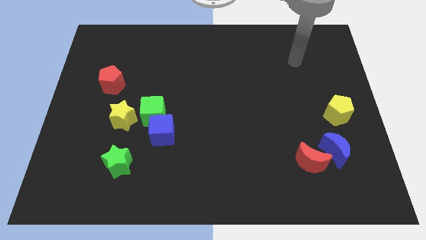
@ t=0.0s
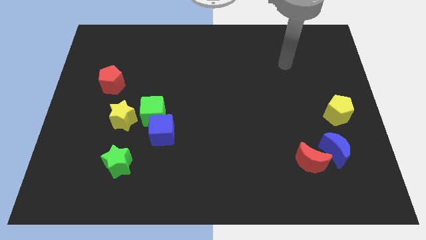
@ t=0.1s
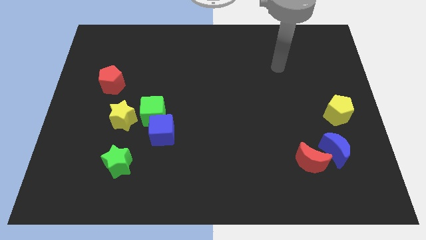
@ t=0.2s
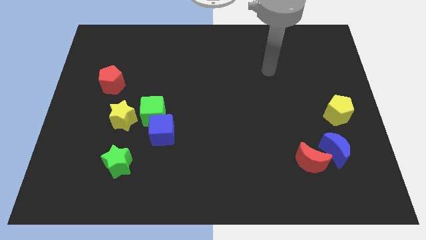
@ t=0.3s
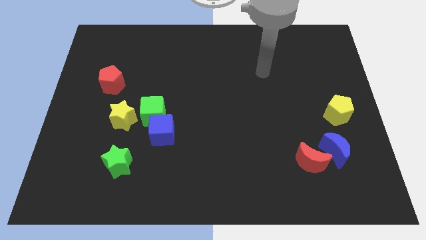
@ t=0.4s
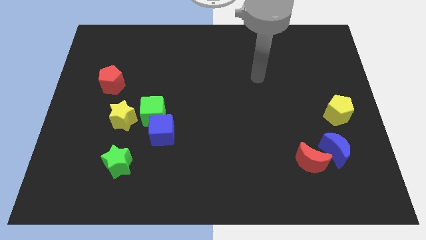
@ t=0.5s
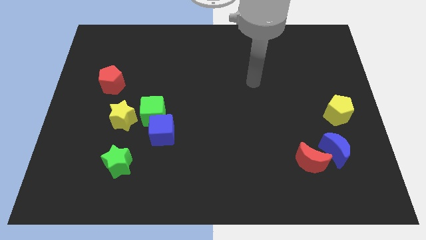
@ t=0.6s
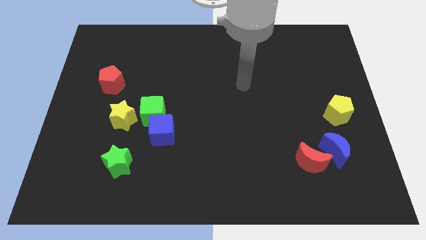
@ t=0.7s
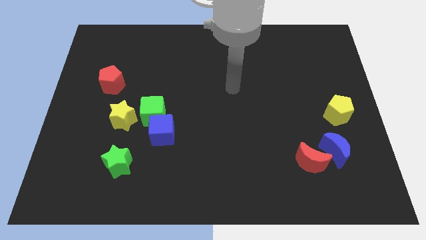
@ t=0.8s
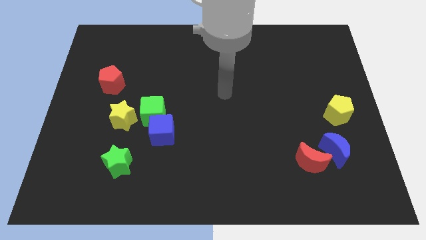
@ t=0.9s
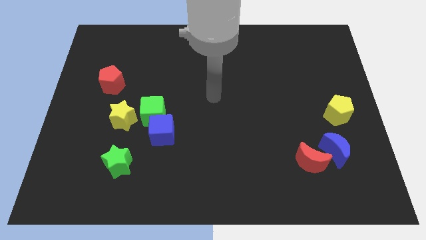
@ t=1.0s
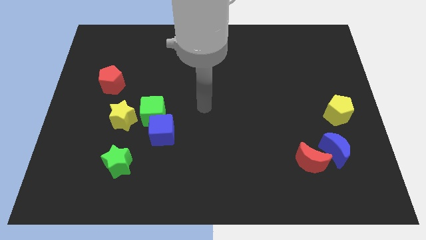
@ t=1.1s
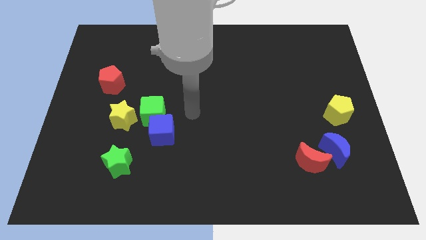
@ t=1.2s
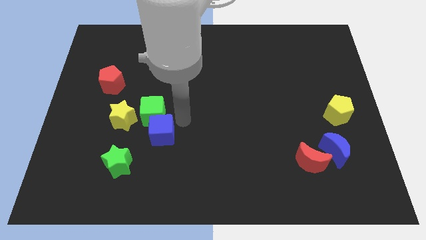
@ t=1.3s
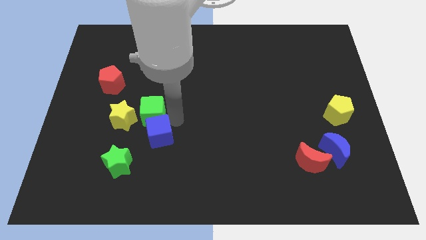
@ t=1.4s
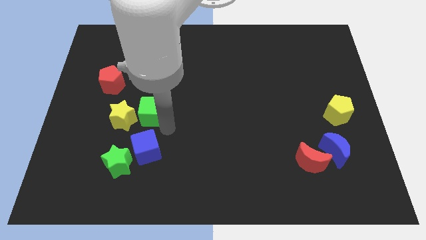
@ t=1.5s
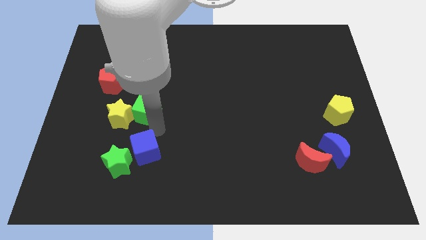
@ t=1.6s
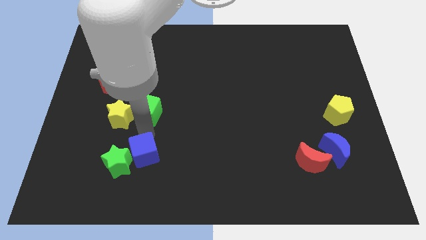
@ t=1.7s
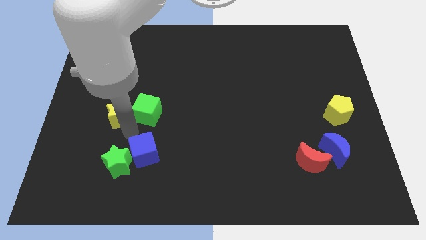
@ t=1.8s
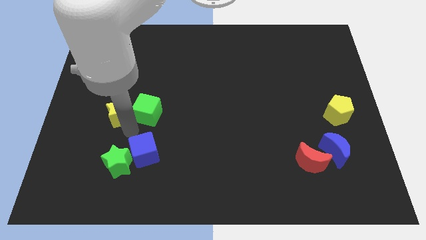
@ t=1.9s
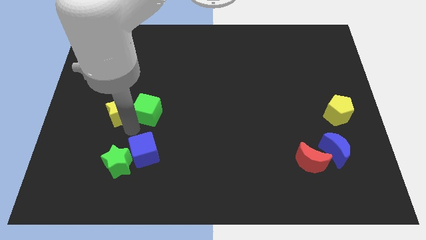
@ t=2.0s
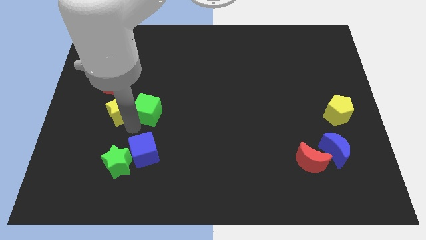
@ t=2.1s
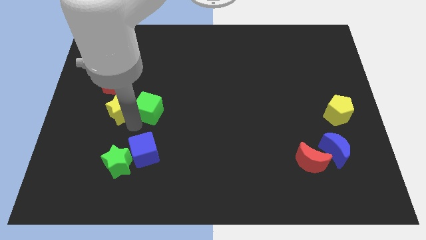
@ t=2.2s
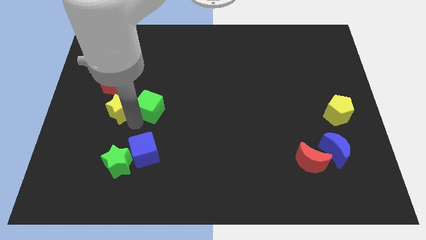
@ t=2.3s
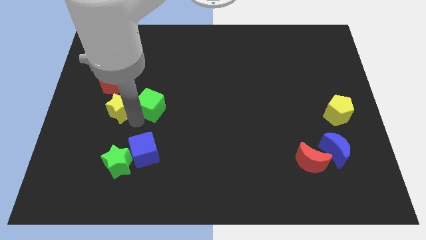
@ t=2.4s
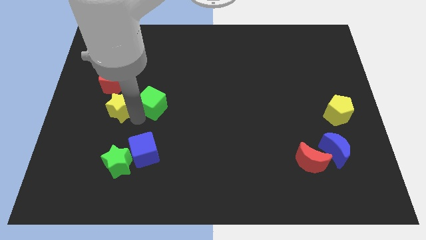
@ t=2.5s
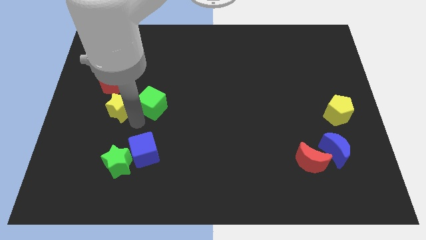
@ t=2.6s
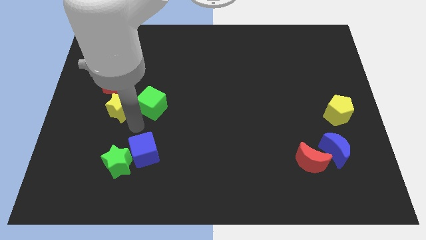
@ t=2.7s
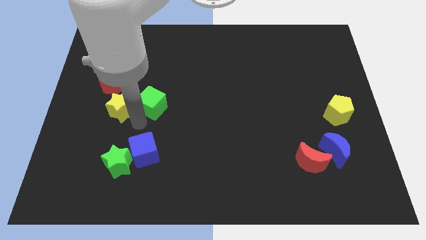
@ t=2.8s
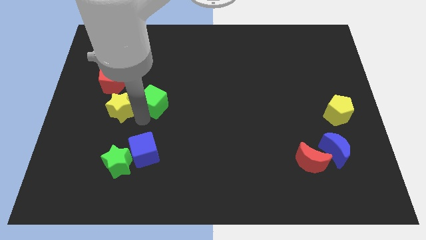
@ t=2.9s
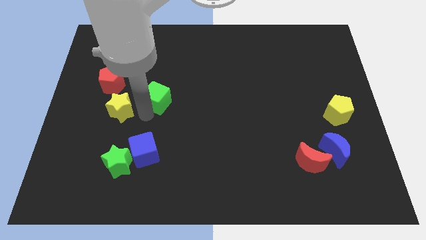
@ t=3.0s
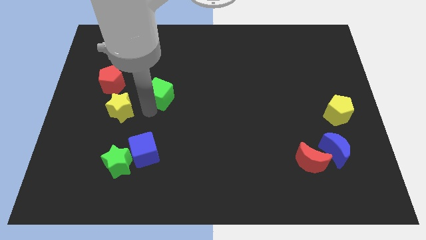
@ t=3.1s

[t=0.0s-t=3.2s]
move the green cube away from the blue cube and yellow star

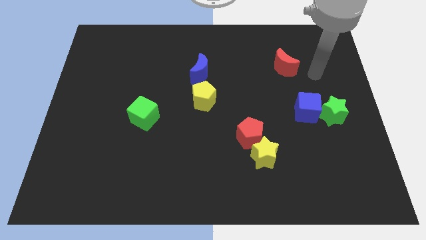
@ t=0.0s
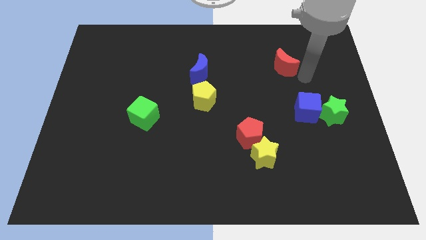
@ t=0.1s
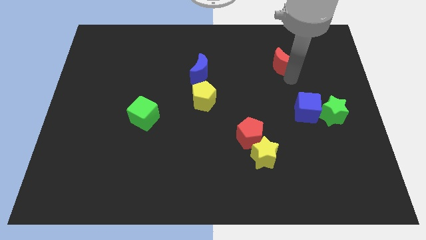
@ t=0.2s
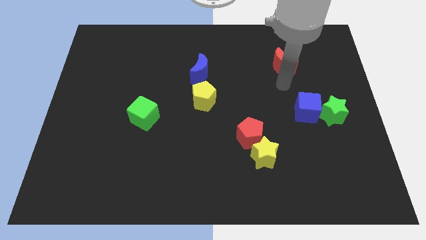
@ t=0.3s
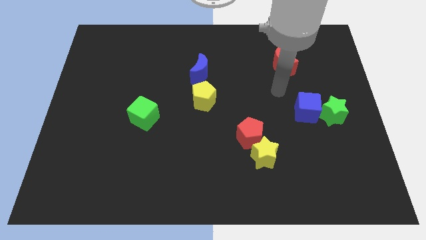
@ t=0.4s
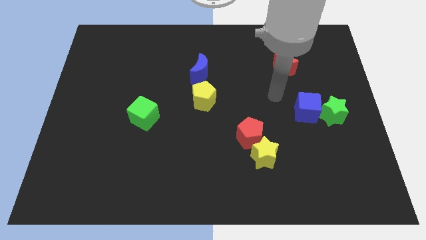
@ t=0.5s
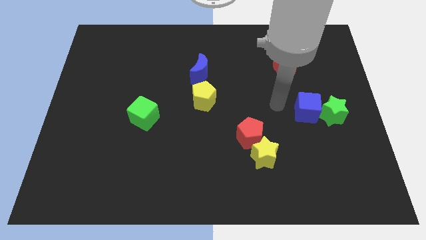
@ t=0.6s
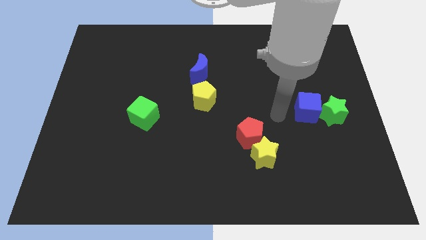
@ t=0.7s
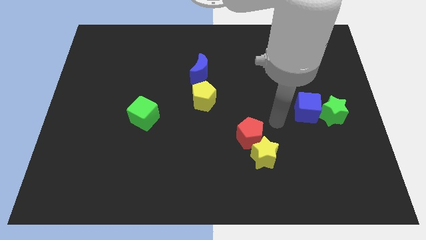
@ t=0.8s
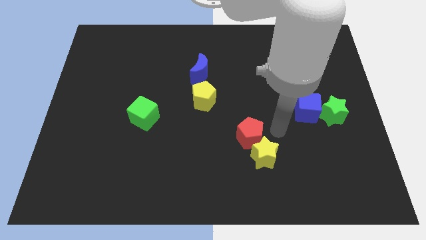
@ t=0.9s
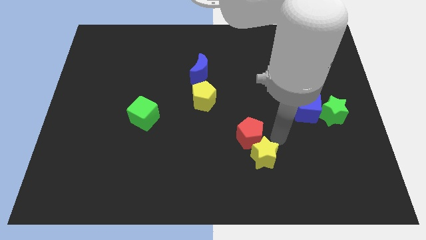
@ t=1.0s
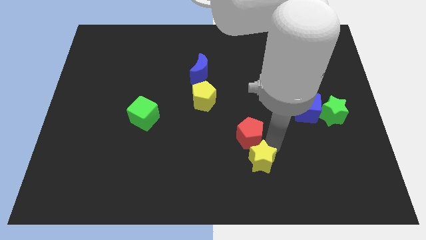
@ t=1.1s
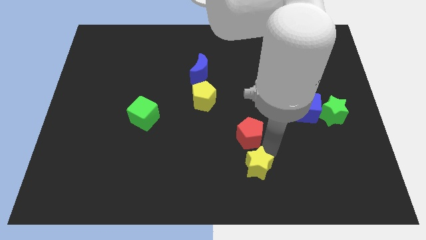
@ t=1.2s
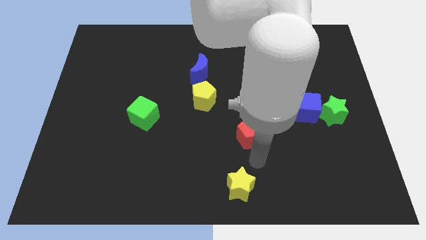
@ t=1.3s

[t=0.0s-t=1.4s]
separate the red pentagon from the yellow star

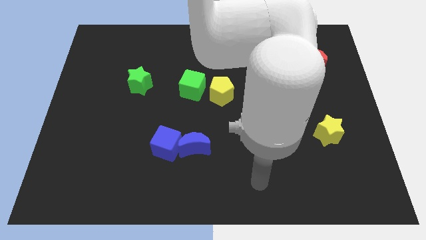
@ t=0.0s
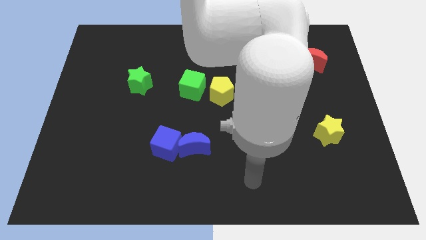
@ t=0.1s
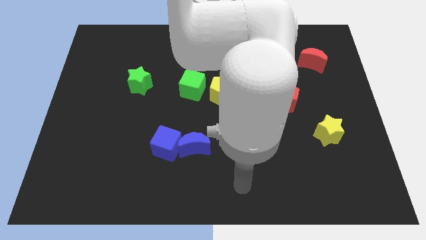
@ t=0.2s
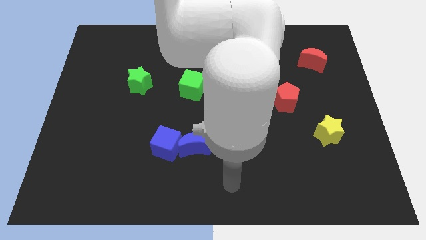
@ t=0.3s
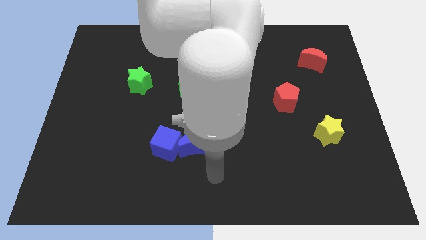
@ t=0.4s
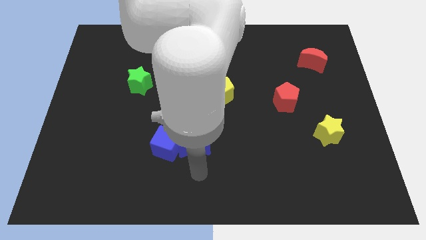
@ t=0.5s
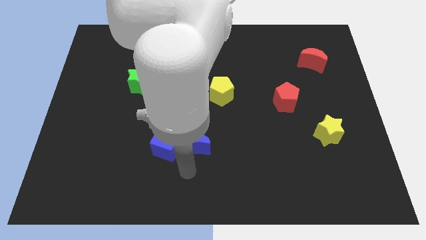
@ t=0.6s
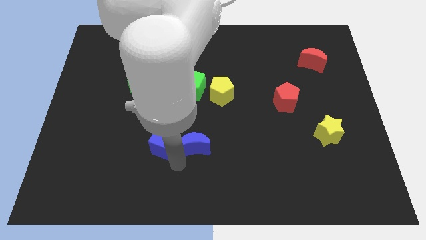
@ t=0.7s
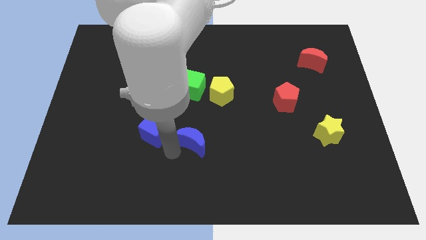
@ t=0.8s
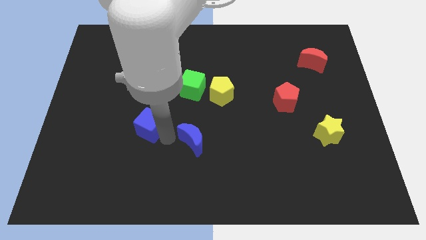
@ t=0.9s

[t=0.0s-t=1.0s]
separate the blue moon from the blue cube

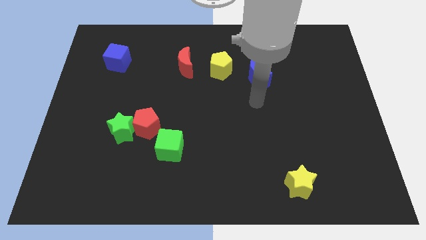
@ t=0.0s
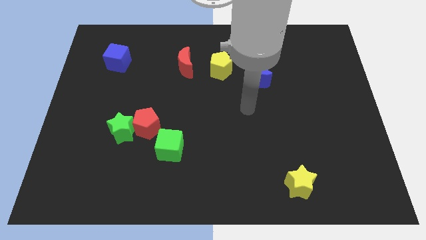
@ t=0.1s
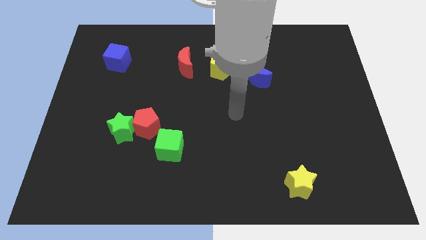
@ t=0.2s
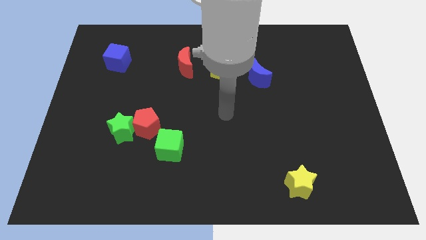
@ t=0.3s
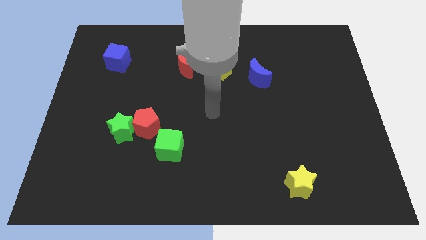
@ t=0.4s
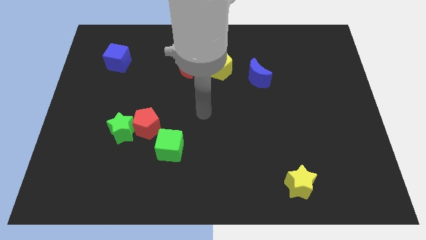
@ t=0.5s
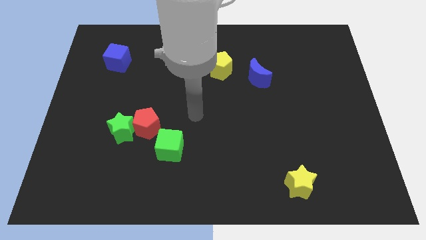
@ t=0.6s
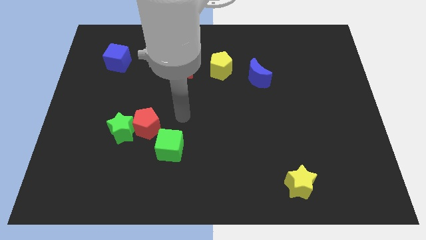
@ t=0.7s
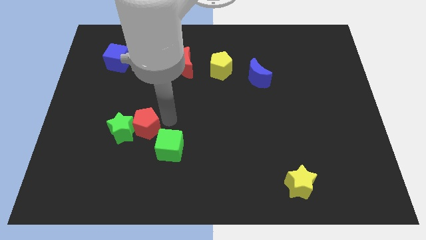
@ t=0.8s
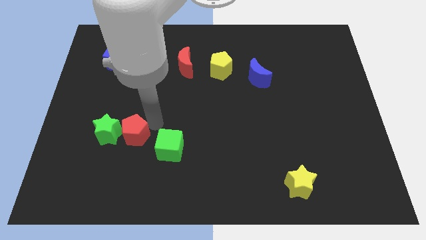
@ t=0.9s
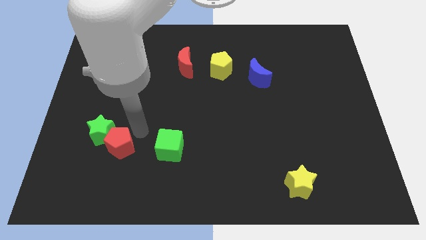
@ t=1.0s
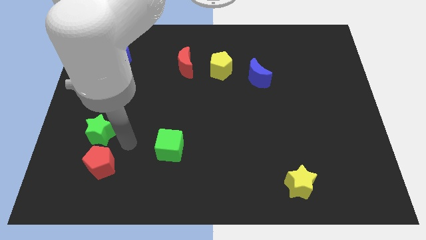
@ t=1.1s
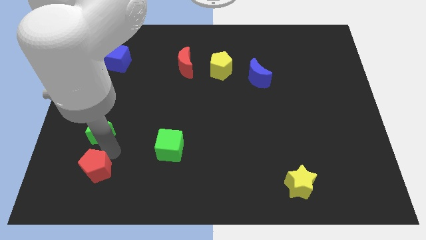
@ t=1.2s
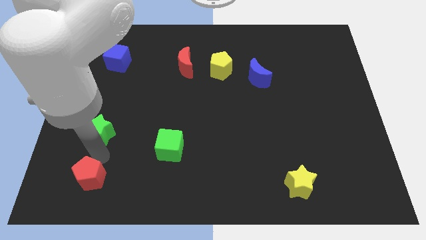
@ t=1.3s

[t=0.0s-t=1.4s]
separate the green star from the red pentagon

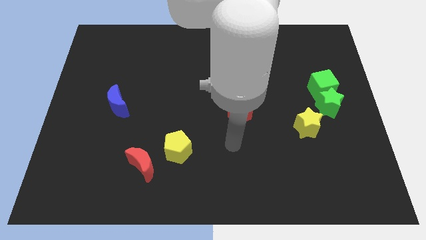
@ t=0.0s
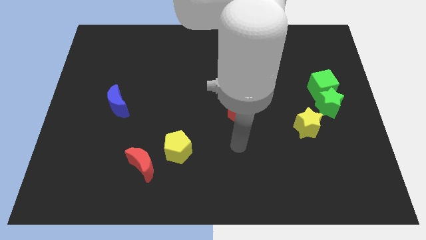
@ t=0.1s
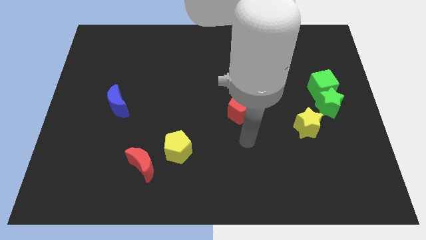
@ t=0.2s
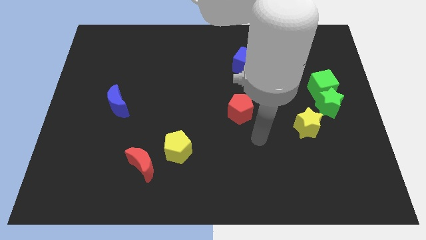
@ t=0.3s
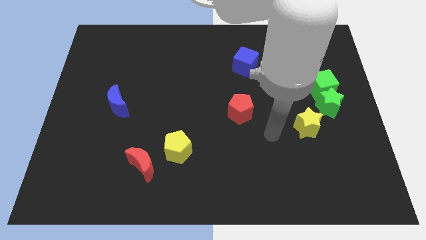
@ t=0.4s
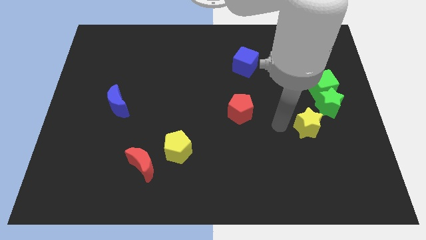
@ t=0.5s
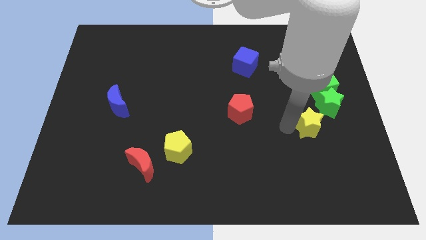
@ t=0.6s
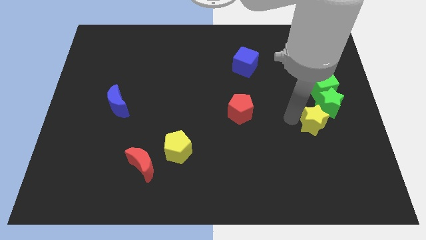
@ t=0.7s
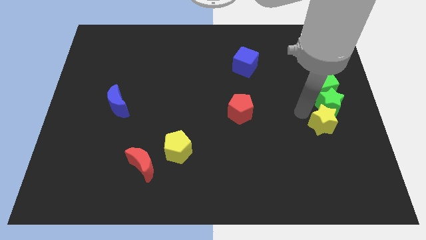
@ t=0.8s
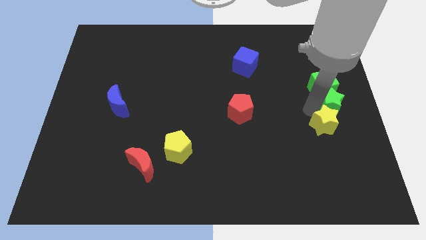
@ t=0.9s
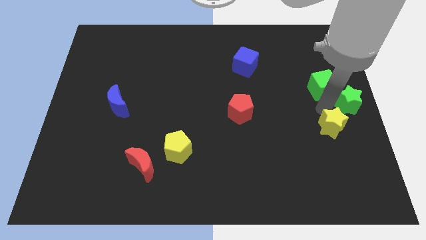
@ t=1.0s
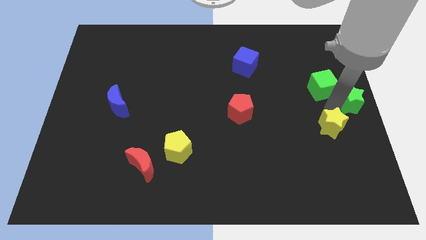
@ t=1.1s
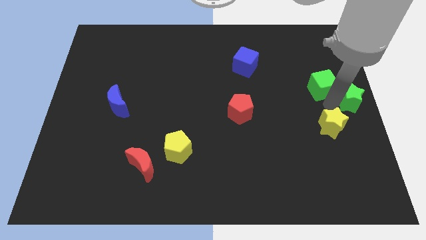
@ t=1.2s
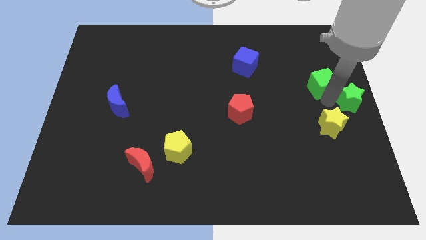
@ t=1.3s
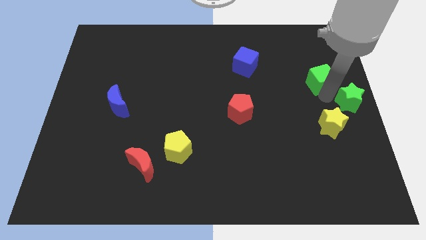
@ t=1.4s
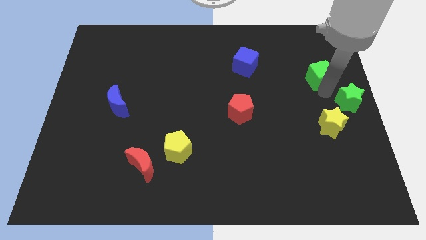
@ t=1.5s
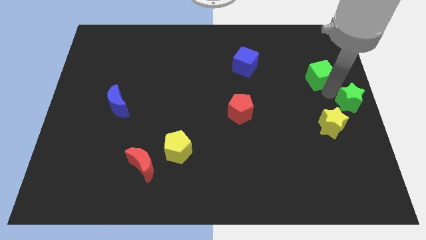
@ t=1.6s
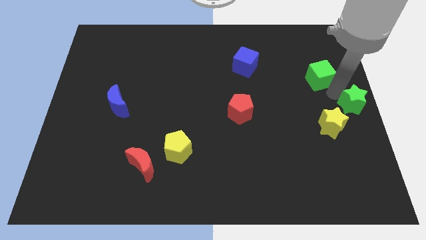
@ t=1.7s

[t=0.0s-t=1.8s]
separate the green cube from the green star

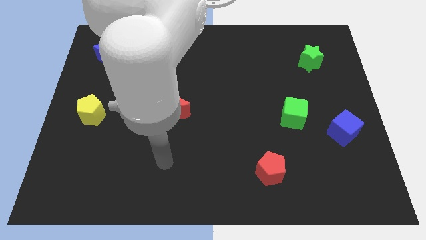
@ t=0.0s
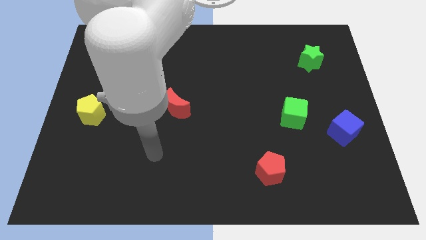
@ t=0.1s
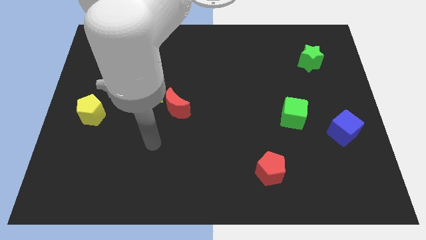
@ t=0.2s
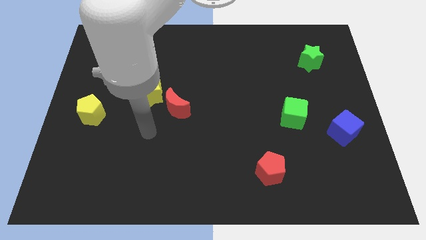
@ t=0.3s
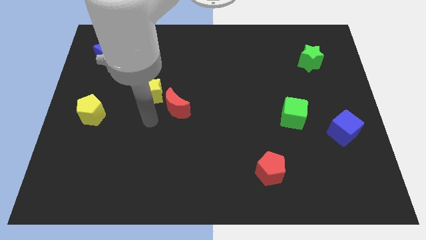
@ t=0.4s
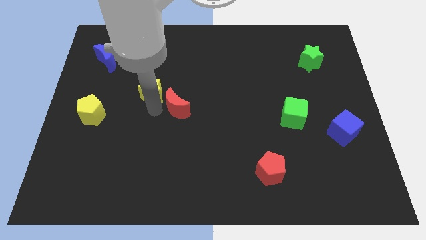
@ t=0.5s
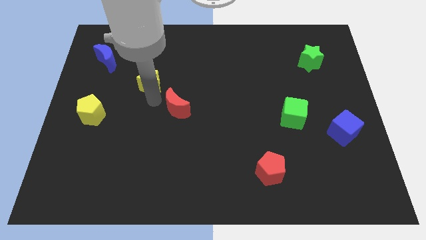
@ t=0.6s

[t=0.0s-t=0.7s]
separate the red moon from the yellow star
